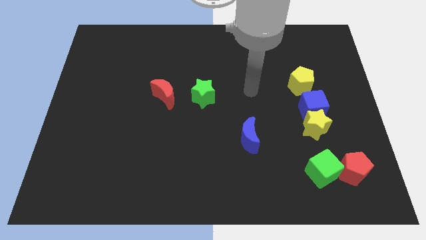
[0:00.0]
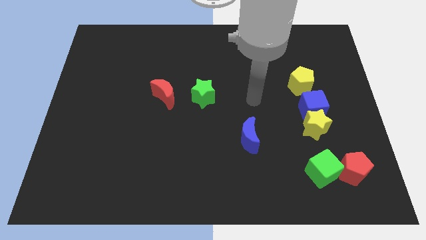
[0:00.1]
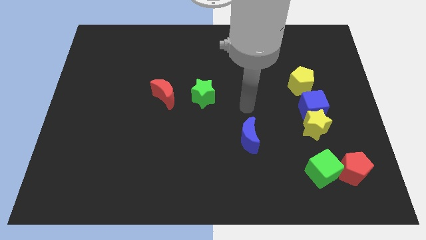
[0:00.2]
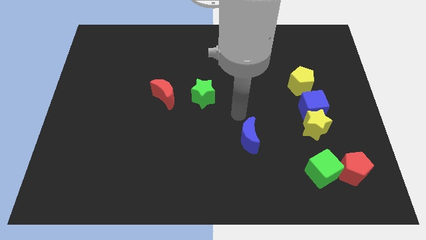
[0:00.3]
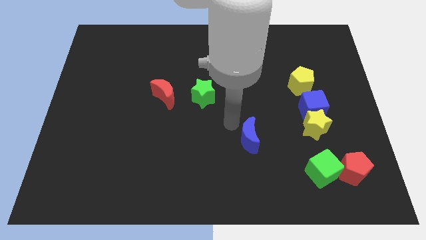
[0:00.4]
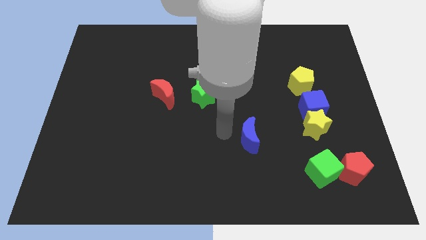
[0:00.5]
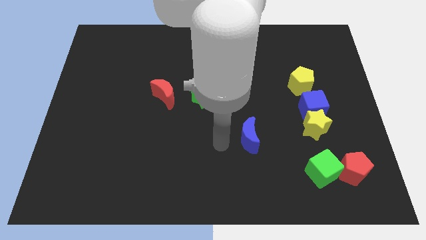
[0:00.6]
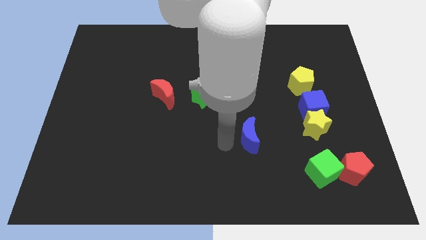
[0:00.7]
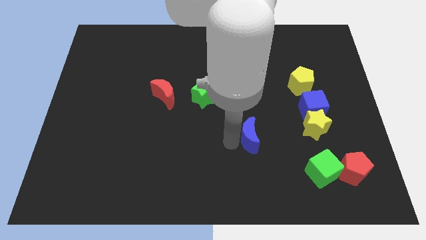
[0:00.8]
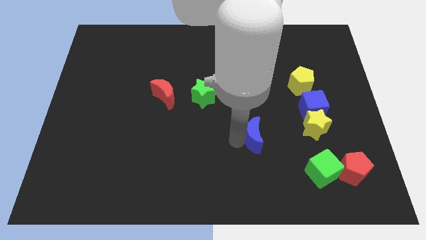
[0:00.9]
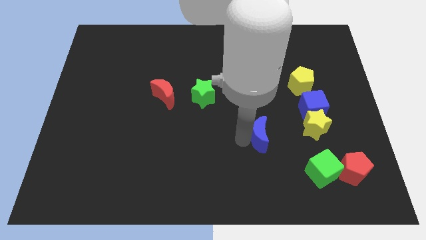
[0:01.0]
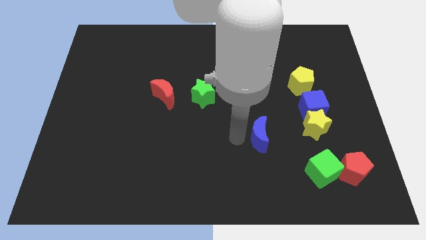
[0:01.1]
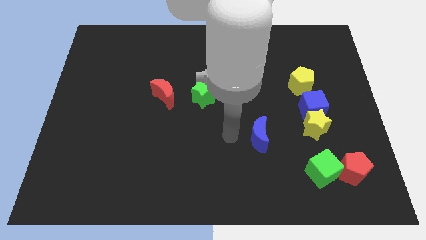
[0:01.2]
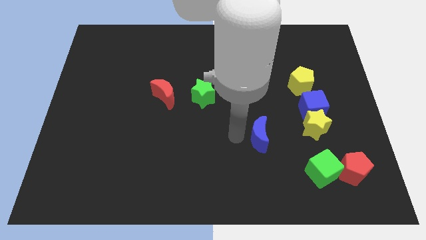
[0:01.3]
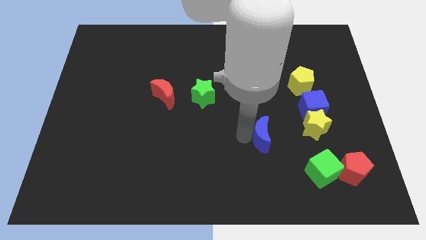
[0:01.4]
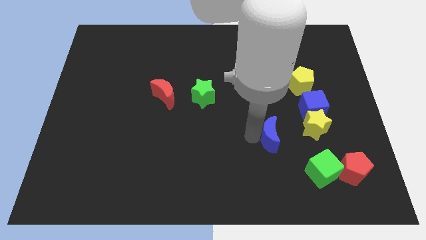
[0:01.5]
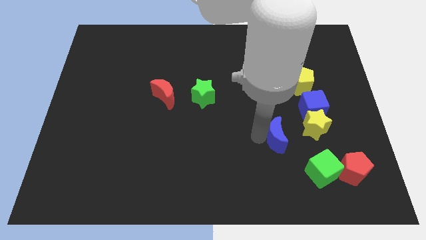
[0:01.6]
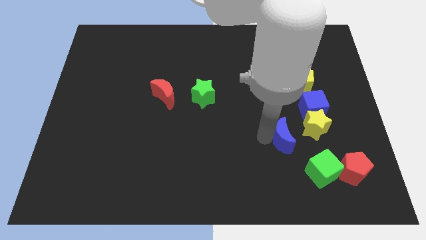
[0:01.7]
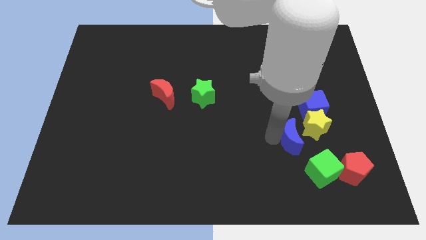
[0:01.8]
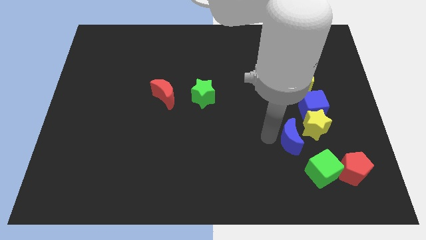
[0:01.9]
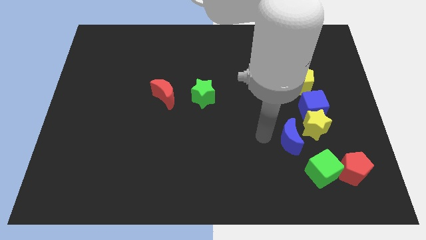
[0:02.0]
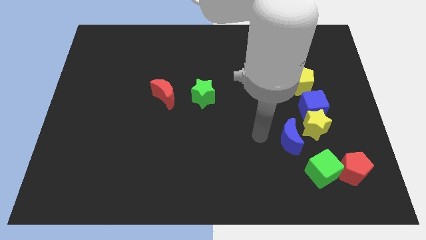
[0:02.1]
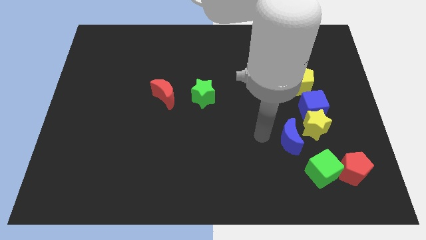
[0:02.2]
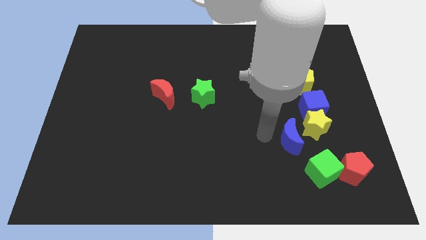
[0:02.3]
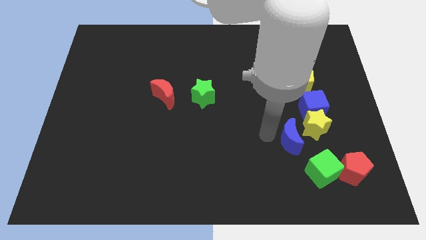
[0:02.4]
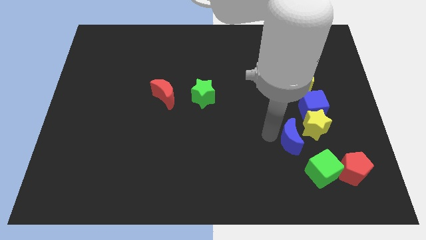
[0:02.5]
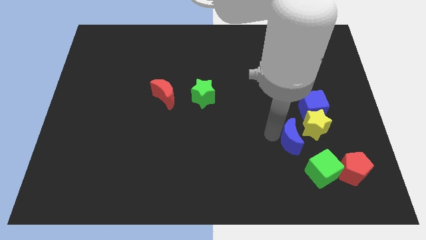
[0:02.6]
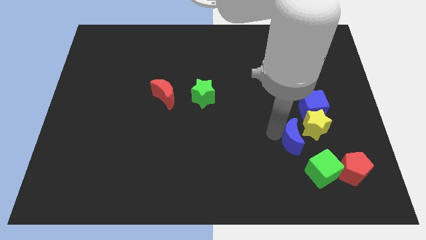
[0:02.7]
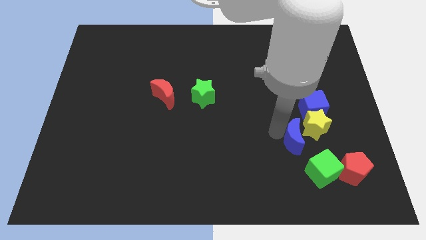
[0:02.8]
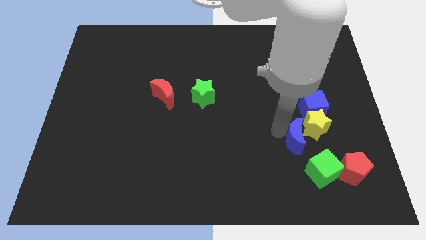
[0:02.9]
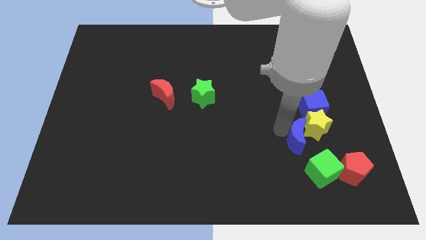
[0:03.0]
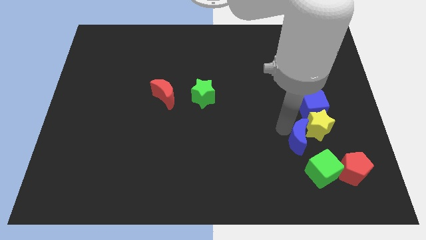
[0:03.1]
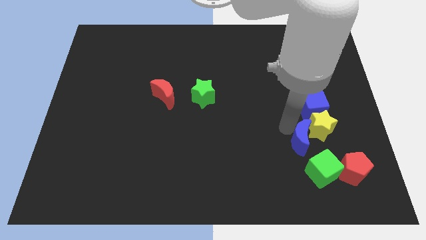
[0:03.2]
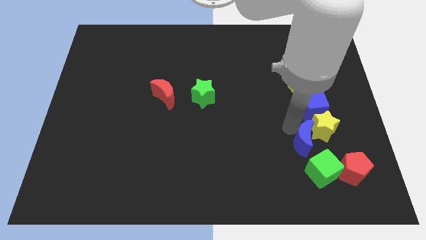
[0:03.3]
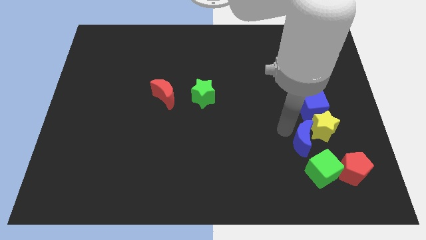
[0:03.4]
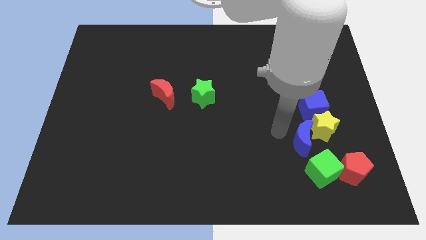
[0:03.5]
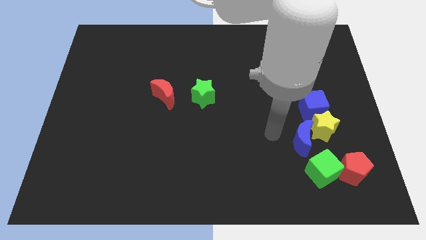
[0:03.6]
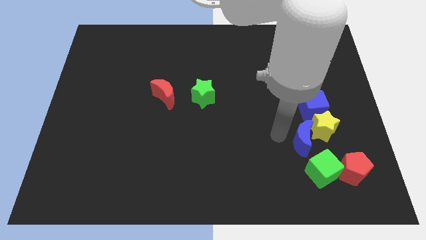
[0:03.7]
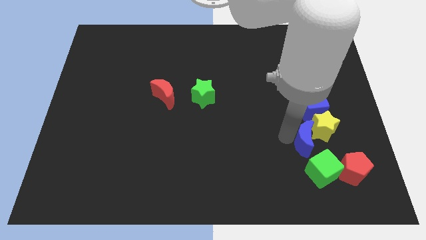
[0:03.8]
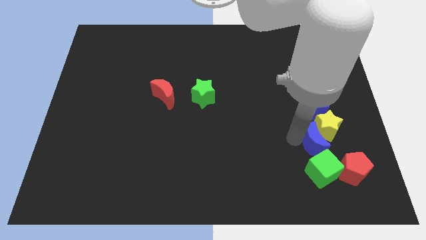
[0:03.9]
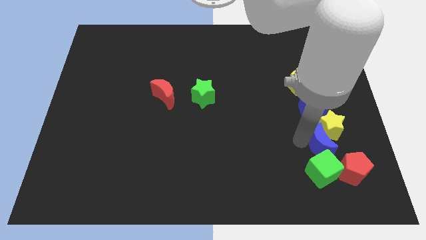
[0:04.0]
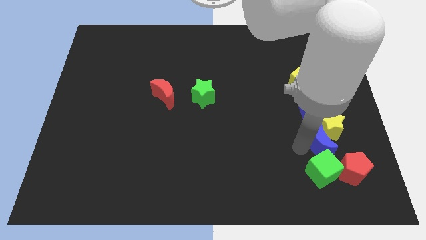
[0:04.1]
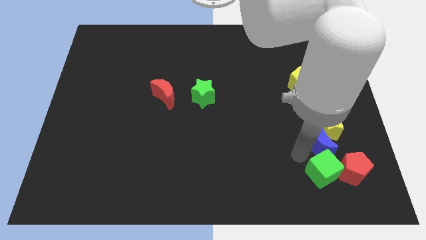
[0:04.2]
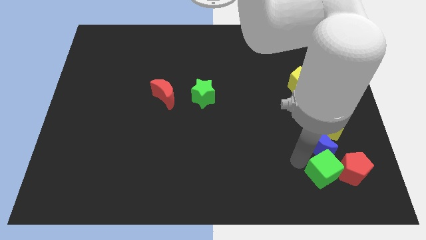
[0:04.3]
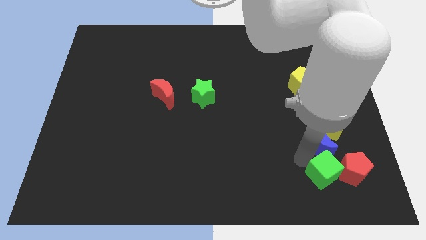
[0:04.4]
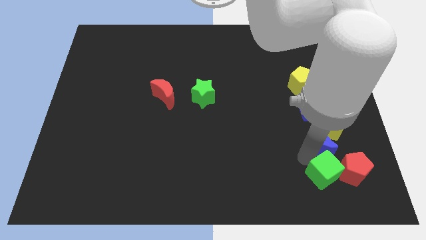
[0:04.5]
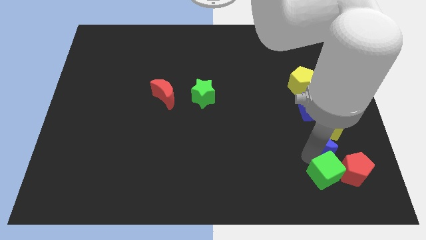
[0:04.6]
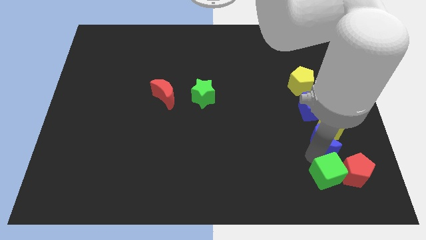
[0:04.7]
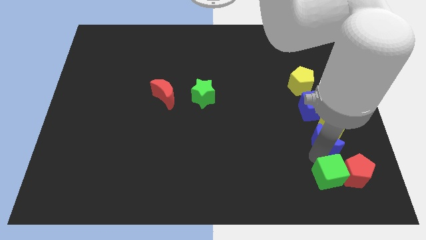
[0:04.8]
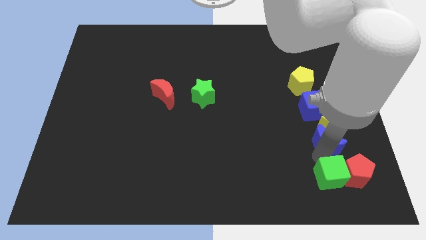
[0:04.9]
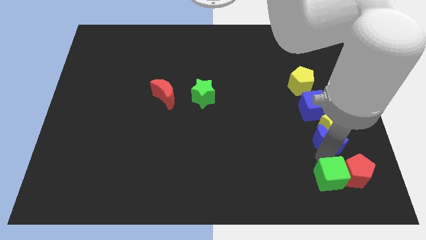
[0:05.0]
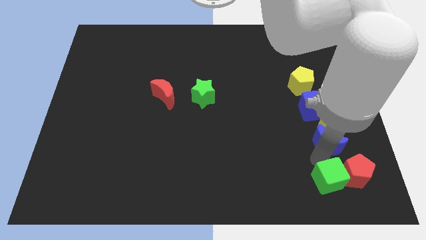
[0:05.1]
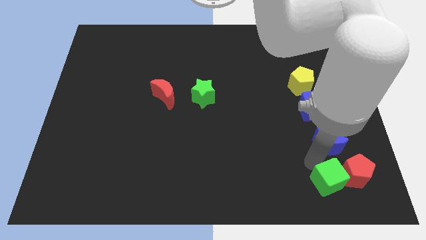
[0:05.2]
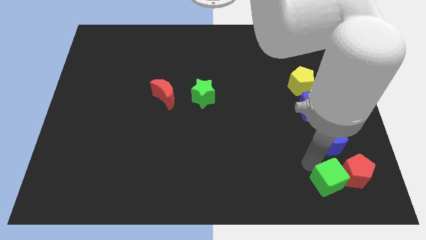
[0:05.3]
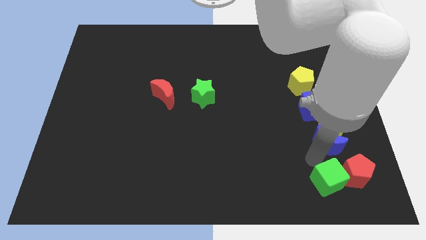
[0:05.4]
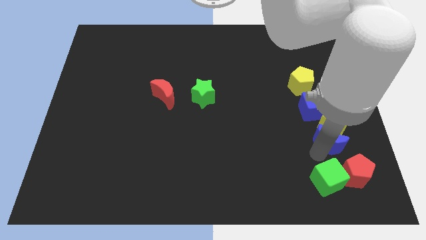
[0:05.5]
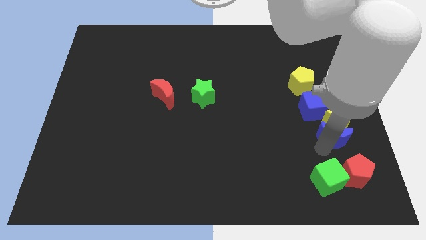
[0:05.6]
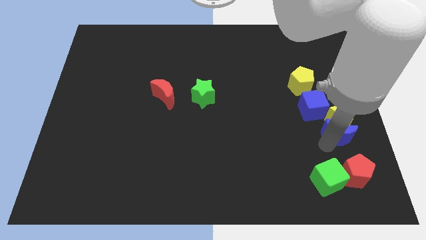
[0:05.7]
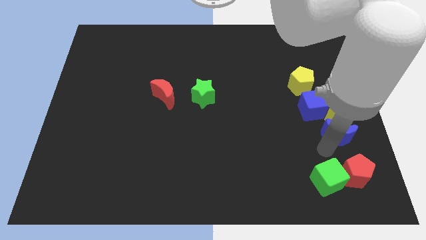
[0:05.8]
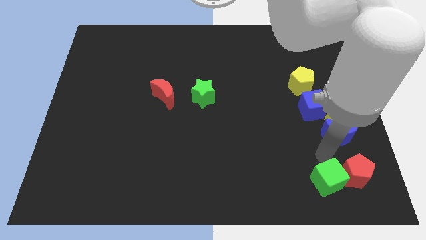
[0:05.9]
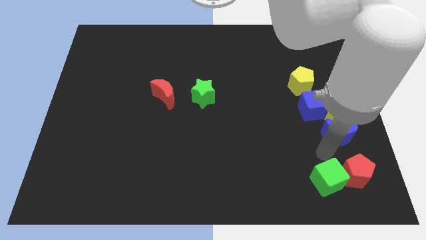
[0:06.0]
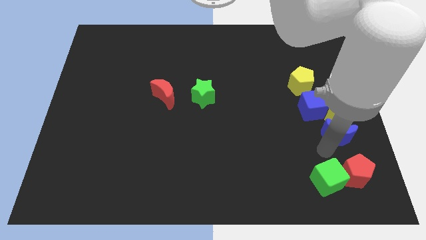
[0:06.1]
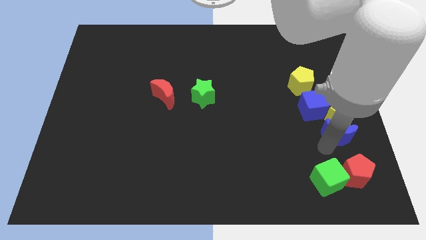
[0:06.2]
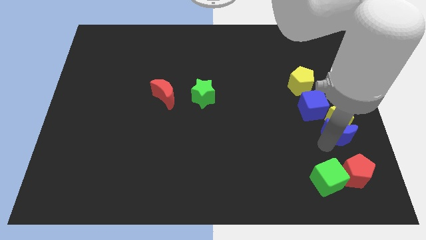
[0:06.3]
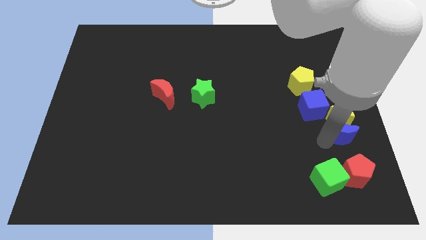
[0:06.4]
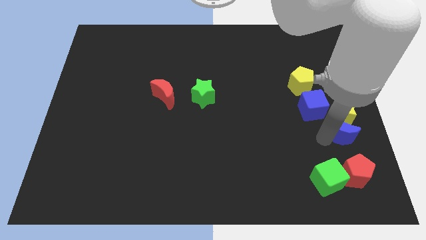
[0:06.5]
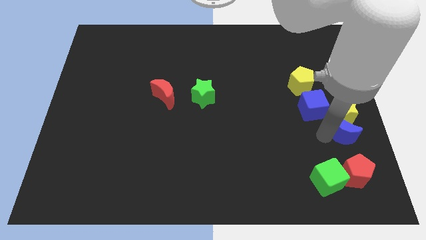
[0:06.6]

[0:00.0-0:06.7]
push the blue moon to the center right

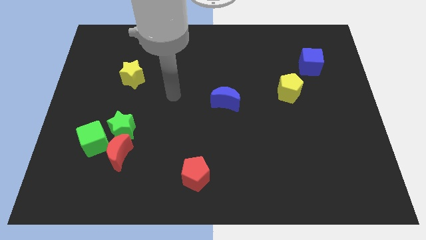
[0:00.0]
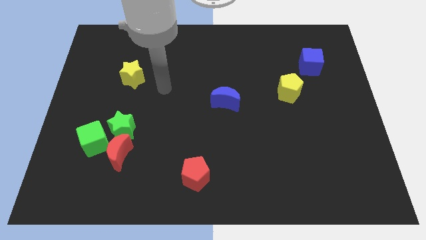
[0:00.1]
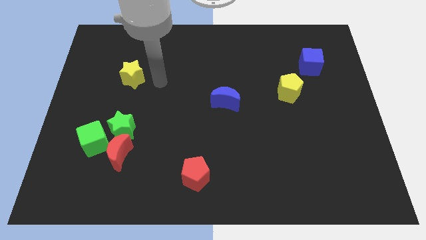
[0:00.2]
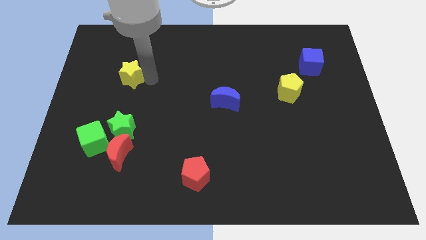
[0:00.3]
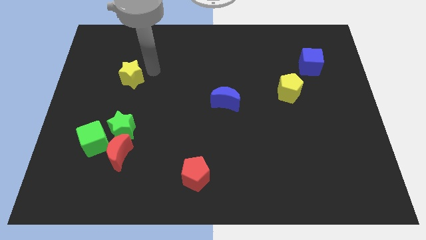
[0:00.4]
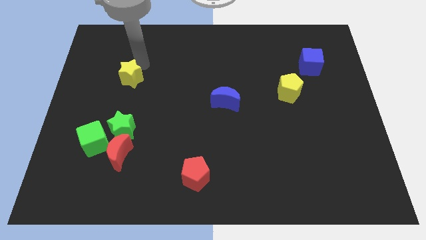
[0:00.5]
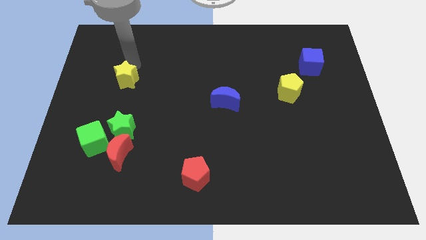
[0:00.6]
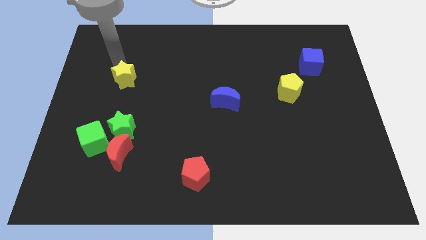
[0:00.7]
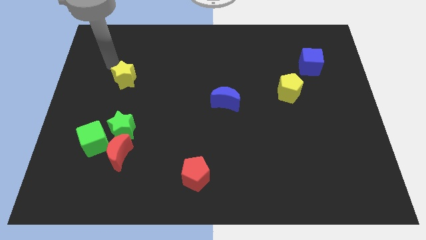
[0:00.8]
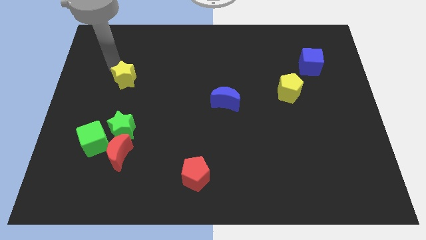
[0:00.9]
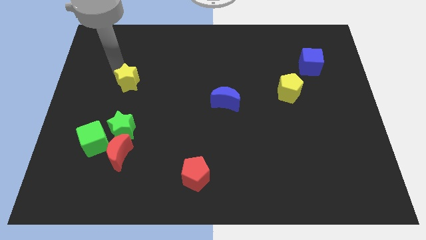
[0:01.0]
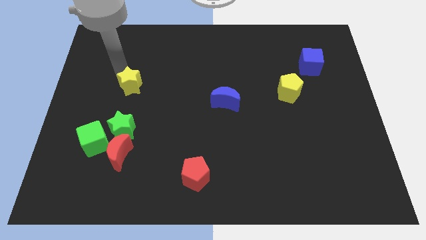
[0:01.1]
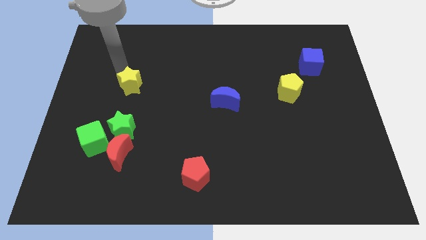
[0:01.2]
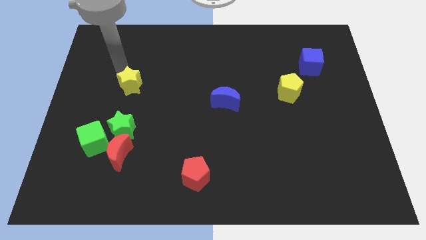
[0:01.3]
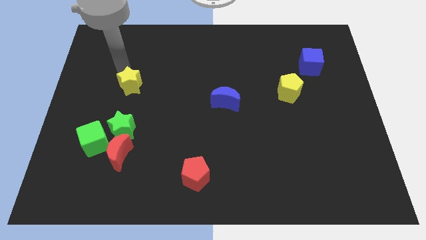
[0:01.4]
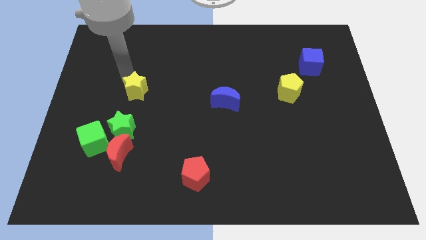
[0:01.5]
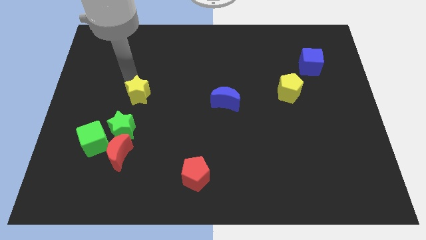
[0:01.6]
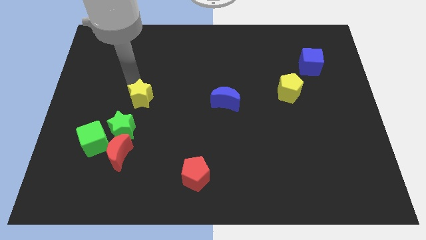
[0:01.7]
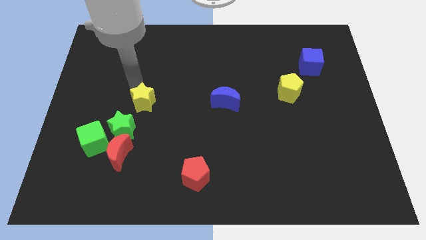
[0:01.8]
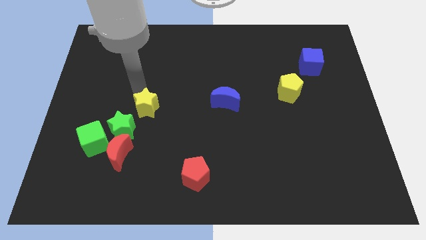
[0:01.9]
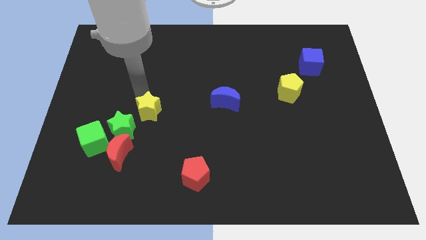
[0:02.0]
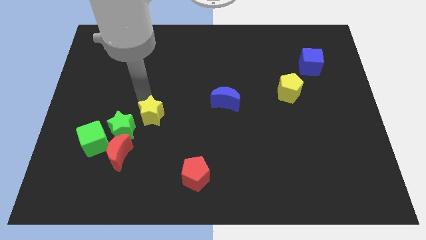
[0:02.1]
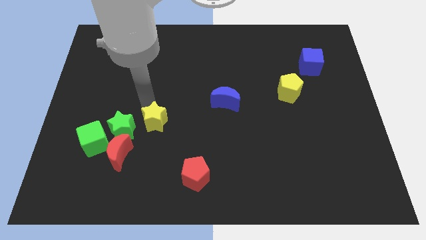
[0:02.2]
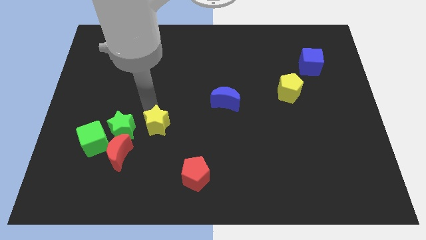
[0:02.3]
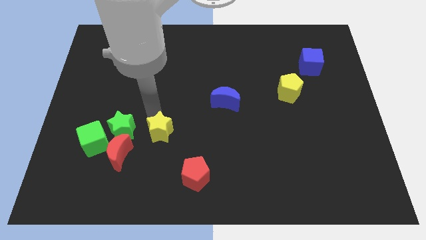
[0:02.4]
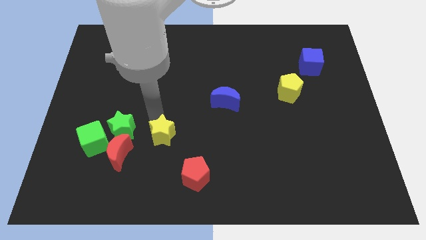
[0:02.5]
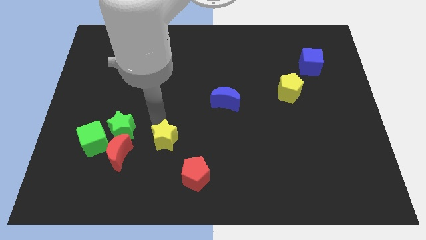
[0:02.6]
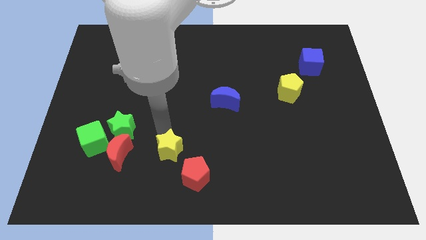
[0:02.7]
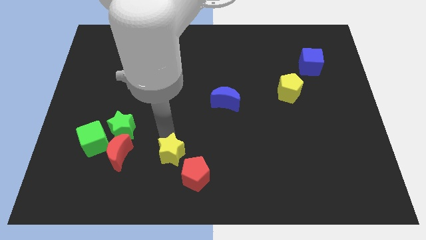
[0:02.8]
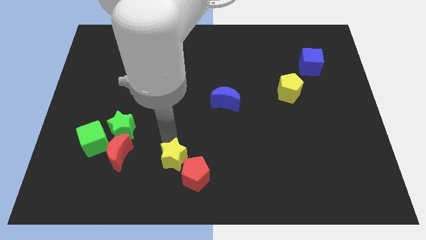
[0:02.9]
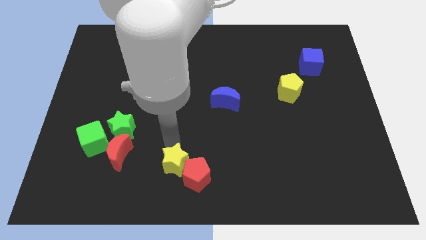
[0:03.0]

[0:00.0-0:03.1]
move the yellow star to the bottom side
